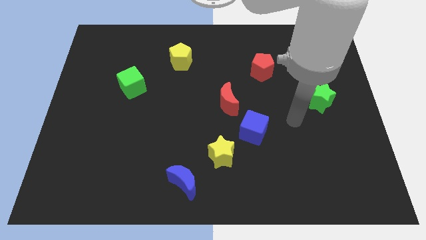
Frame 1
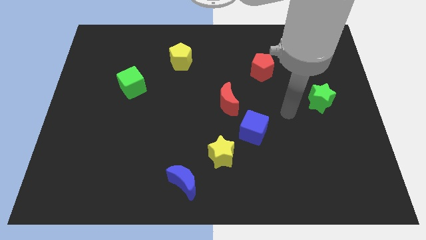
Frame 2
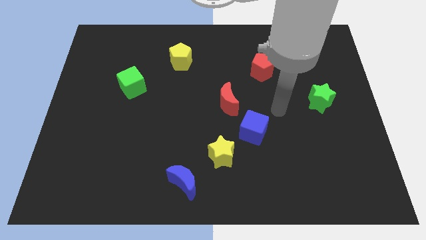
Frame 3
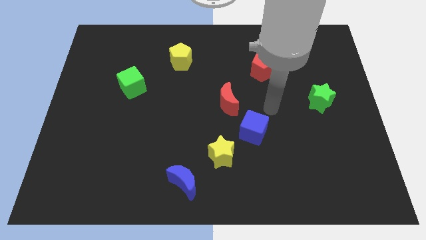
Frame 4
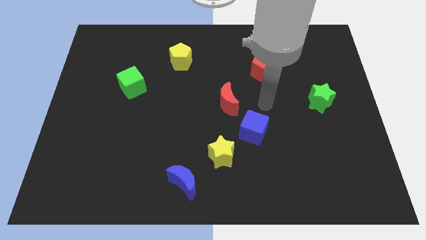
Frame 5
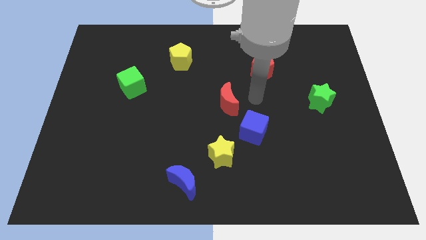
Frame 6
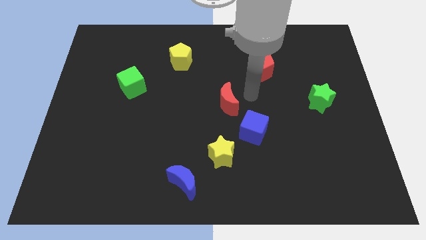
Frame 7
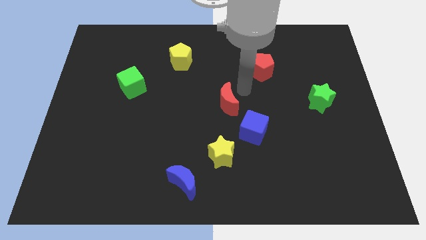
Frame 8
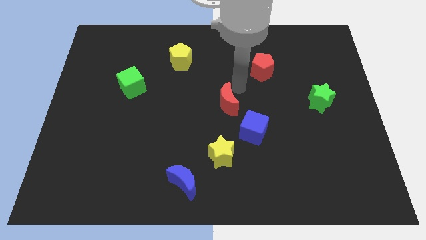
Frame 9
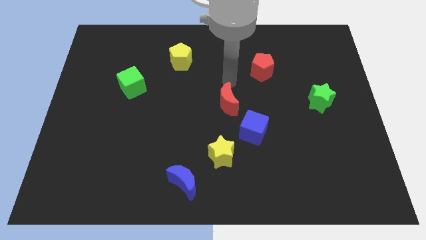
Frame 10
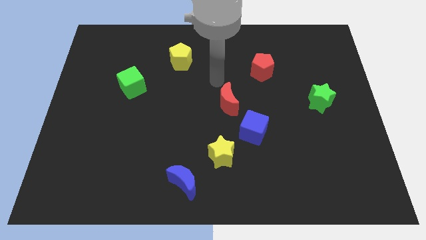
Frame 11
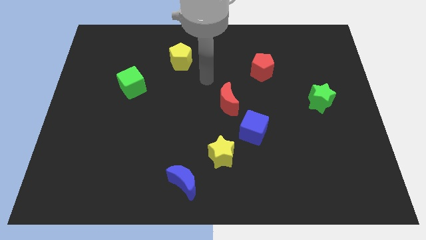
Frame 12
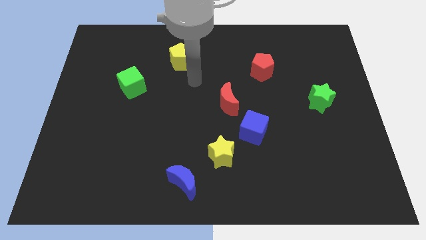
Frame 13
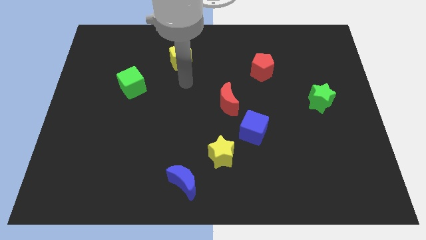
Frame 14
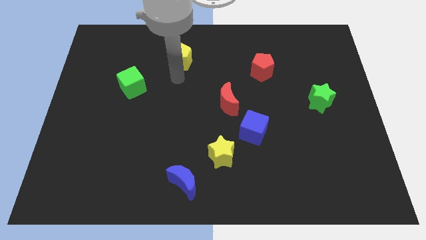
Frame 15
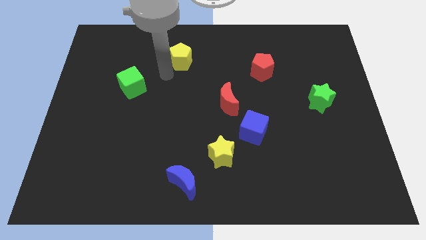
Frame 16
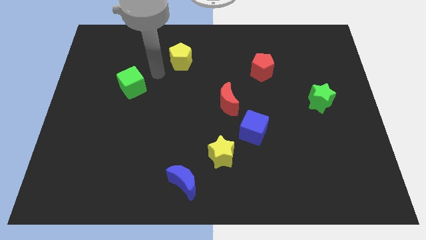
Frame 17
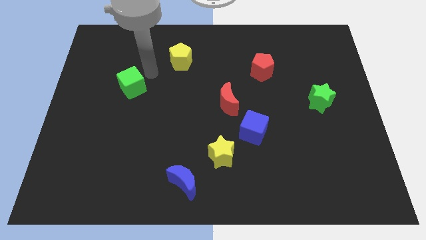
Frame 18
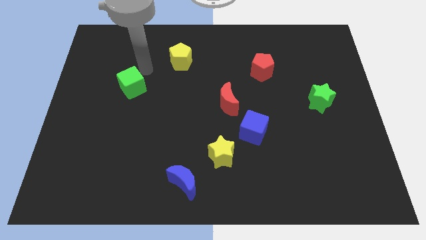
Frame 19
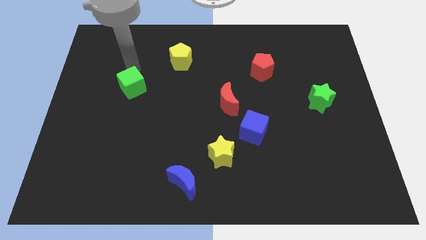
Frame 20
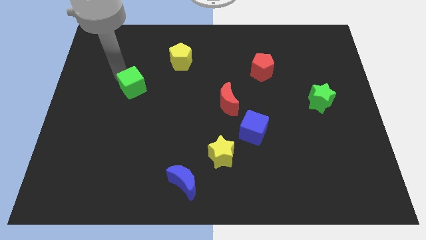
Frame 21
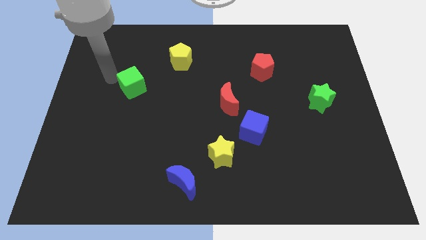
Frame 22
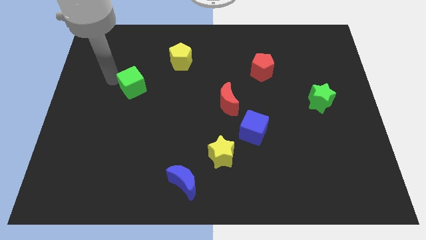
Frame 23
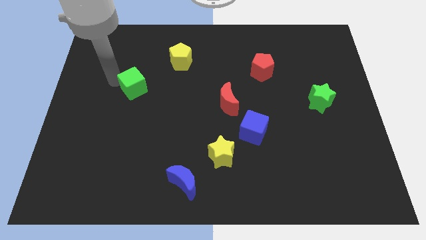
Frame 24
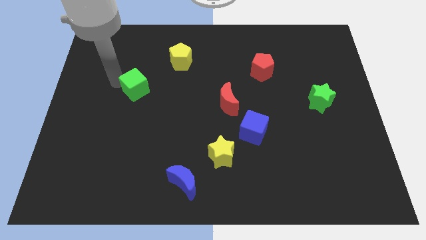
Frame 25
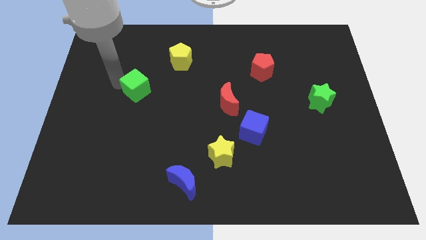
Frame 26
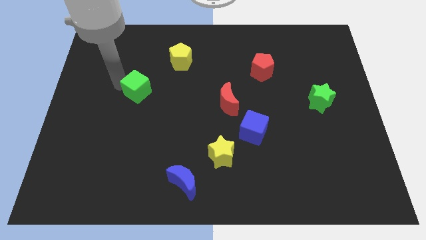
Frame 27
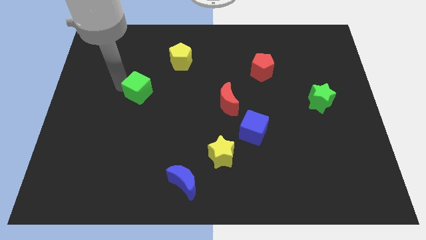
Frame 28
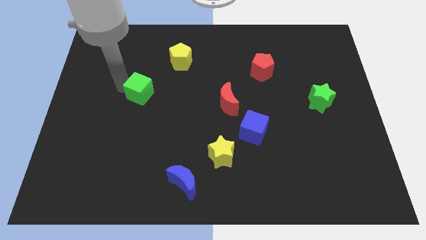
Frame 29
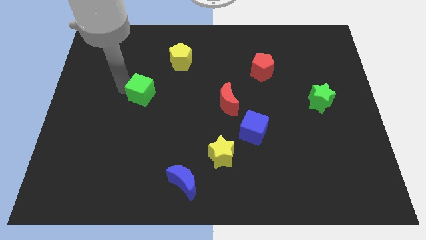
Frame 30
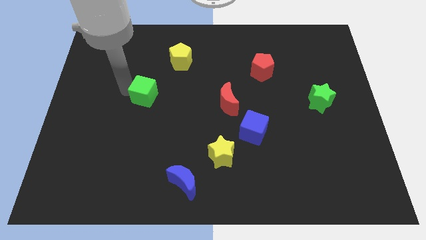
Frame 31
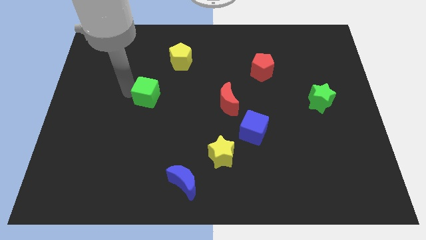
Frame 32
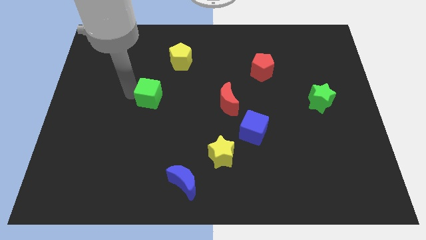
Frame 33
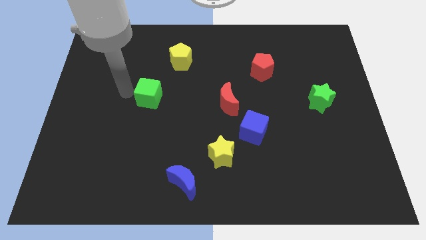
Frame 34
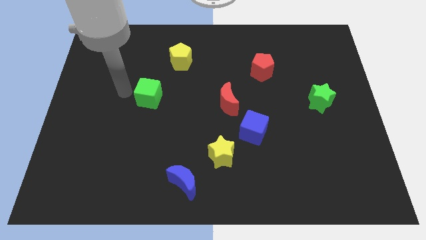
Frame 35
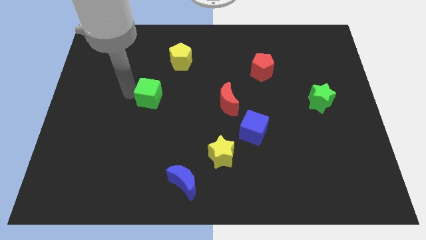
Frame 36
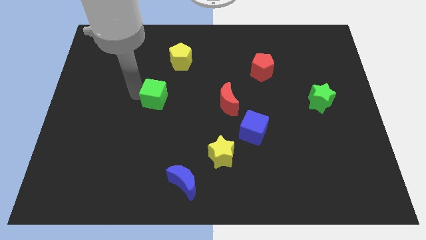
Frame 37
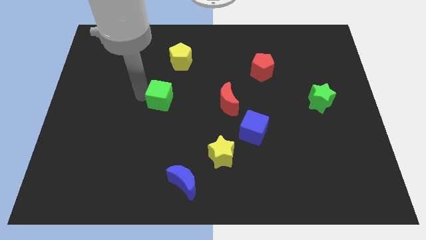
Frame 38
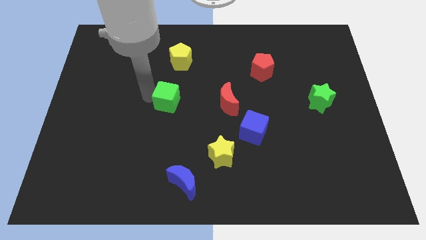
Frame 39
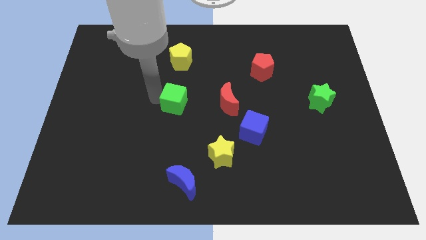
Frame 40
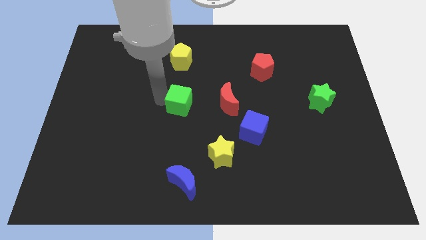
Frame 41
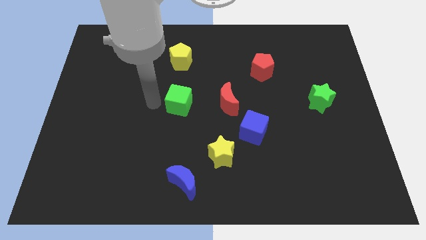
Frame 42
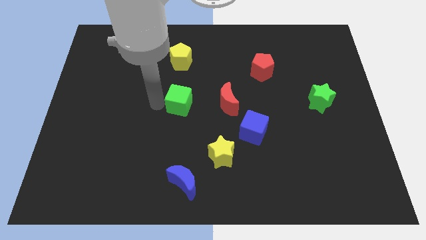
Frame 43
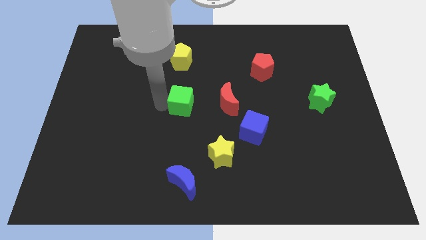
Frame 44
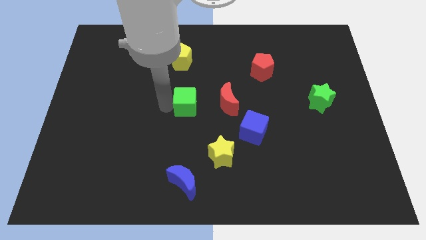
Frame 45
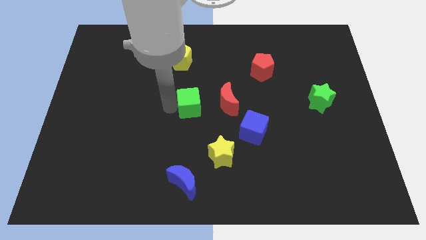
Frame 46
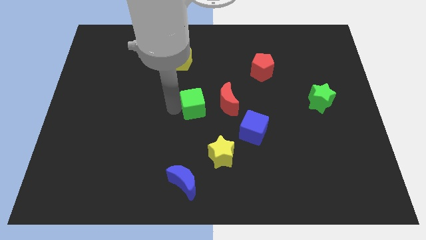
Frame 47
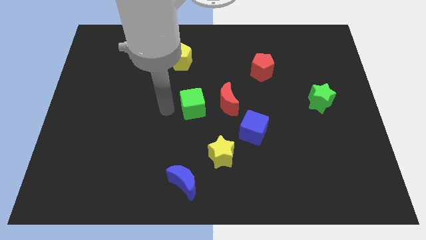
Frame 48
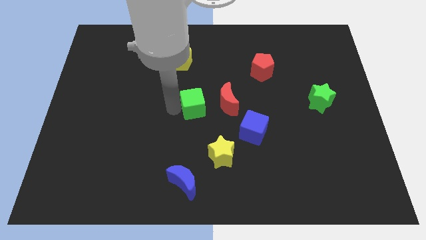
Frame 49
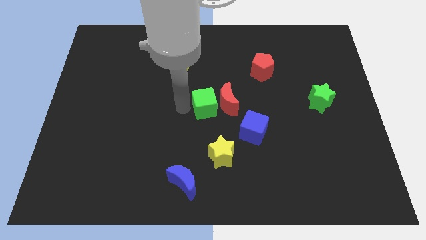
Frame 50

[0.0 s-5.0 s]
move the green cube towards the red moon

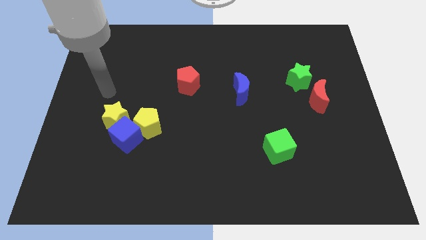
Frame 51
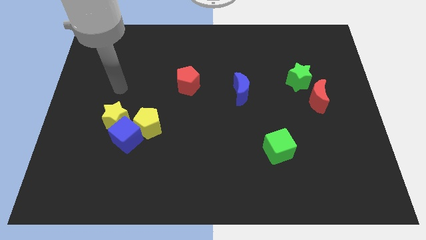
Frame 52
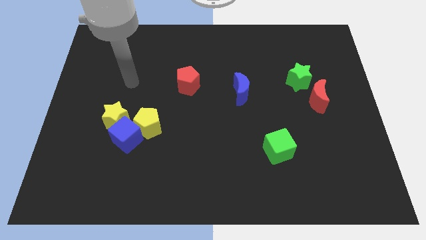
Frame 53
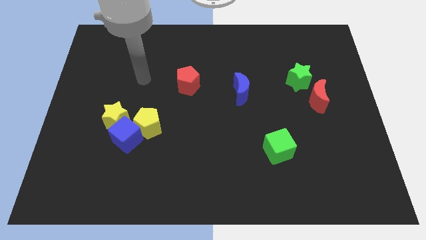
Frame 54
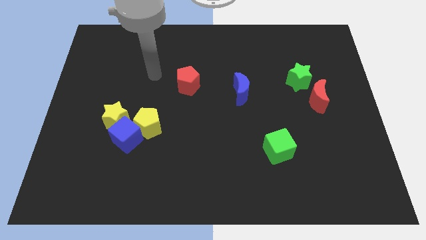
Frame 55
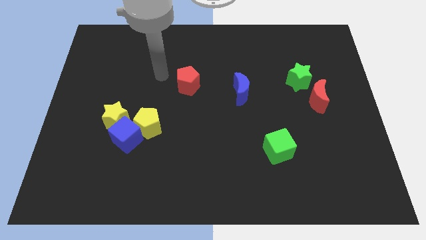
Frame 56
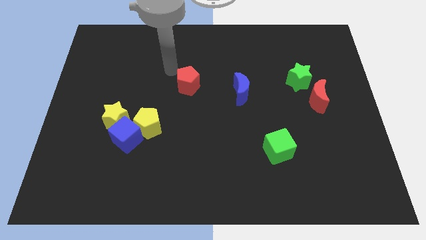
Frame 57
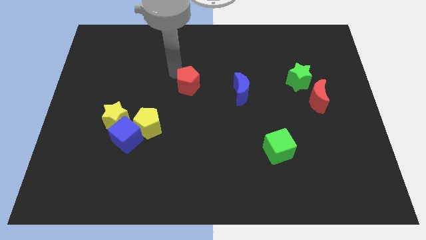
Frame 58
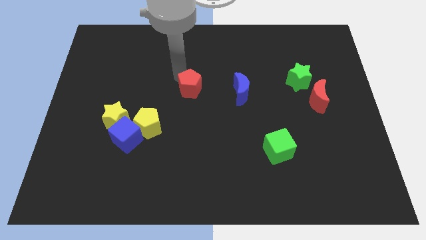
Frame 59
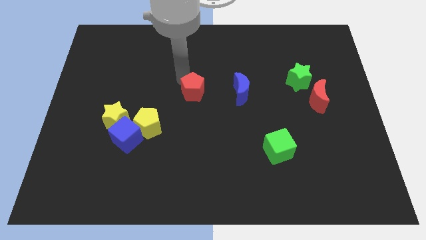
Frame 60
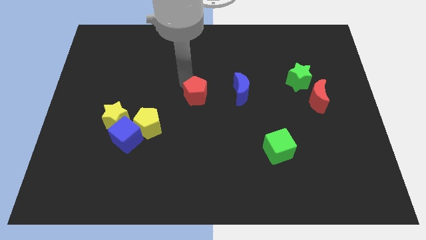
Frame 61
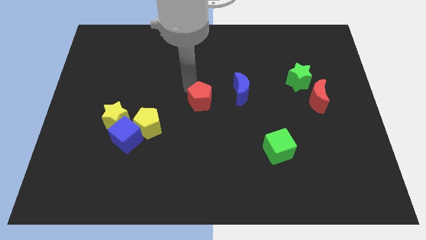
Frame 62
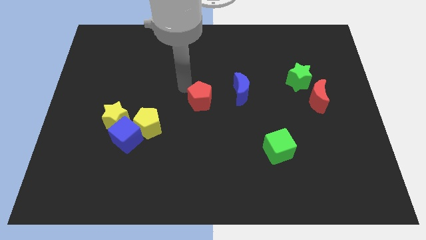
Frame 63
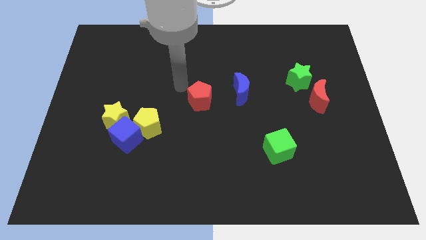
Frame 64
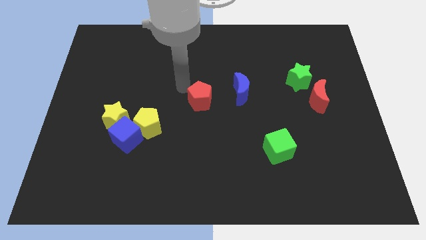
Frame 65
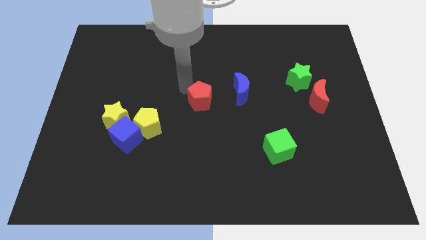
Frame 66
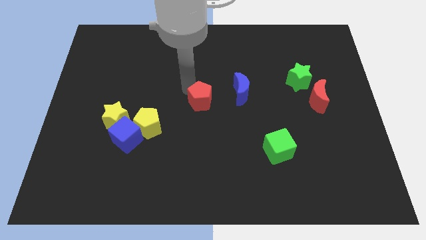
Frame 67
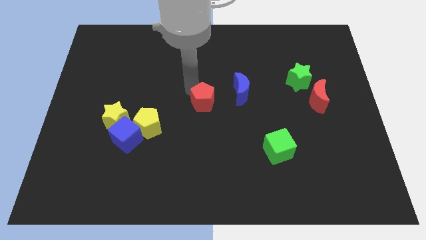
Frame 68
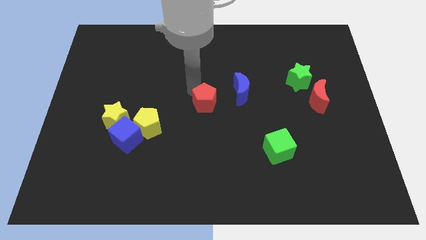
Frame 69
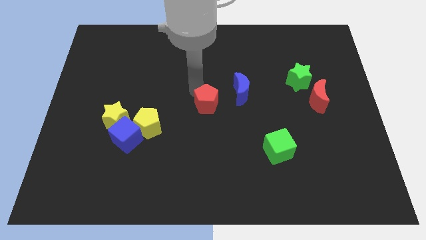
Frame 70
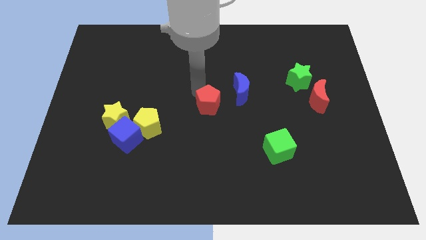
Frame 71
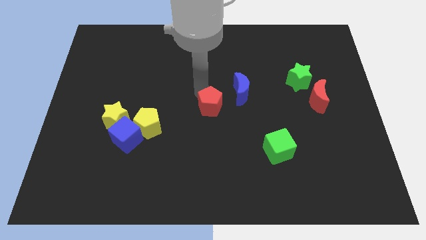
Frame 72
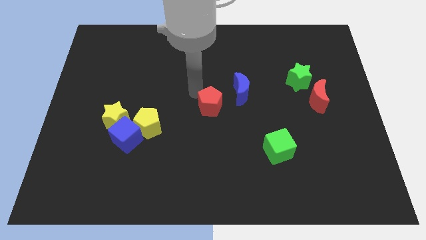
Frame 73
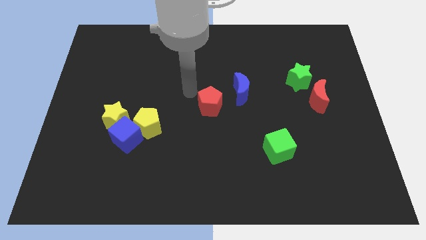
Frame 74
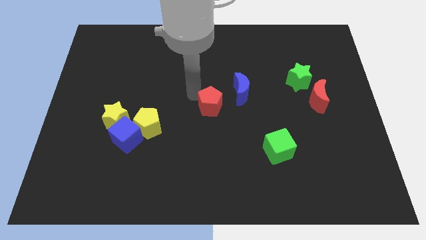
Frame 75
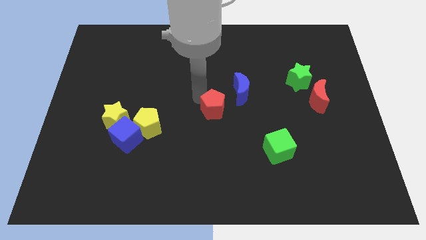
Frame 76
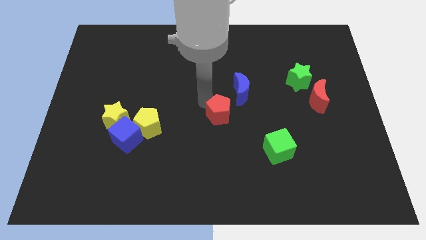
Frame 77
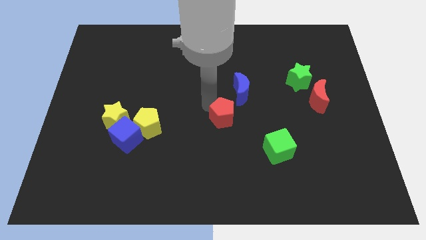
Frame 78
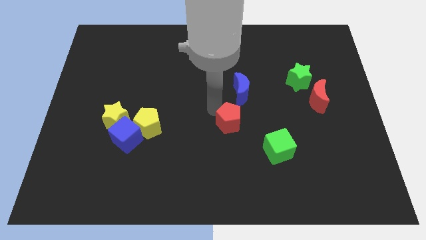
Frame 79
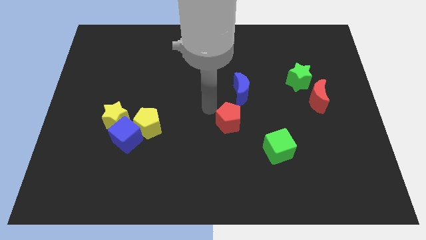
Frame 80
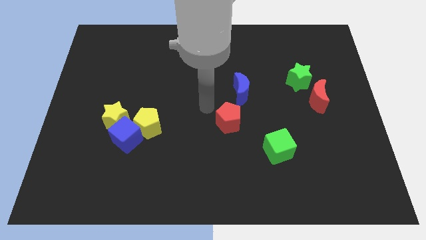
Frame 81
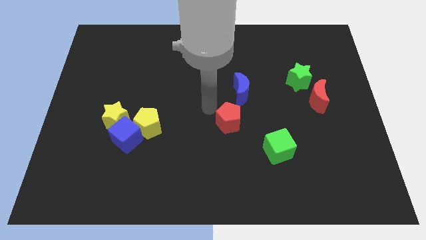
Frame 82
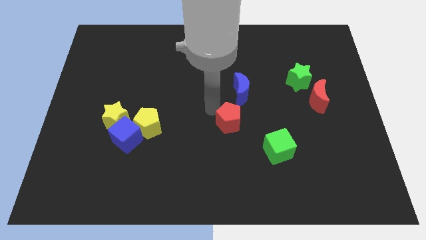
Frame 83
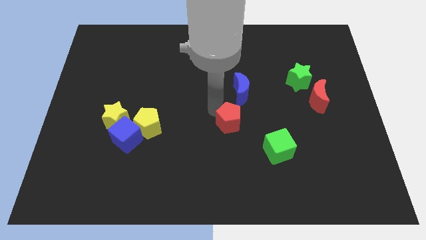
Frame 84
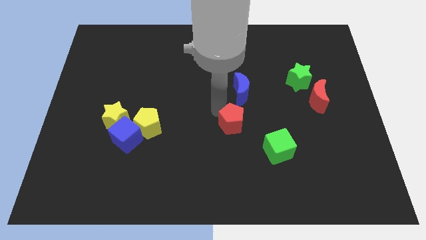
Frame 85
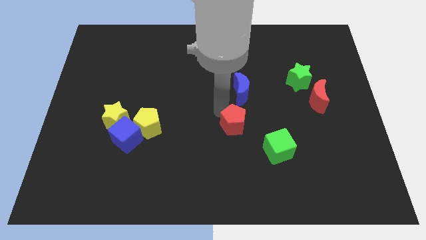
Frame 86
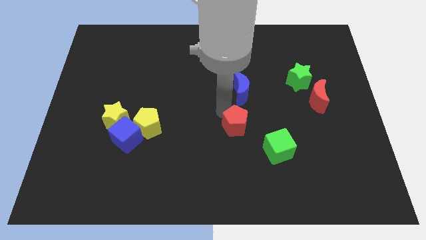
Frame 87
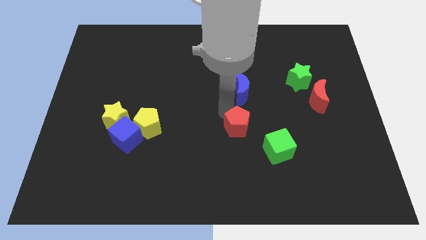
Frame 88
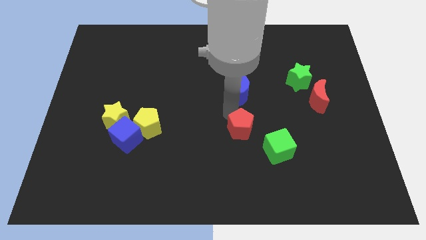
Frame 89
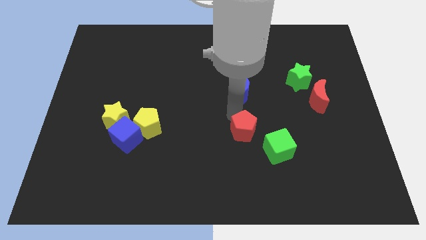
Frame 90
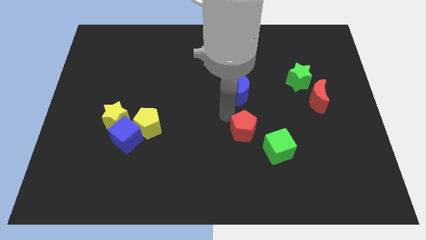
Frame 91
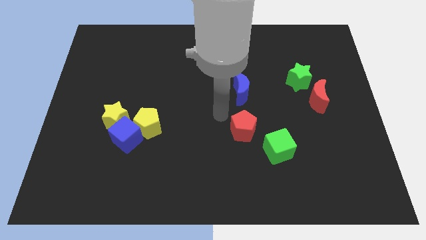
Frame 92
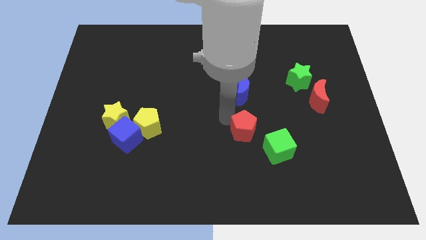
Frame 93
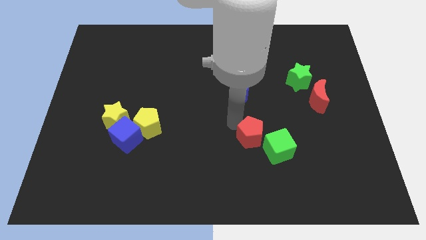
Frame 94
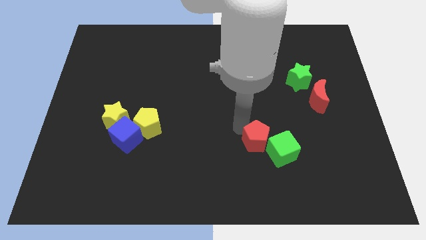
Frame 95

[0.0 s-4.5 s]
push the red pentagon close to the green cube
